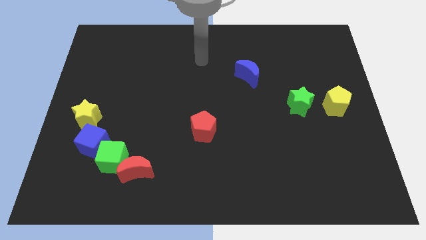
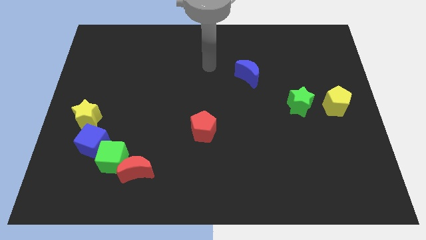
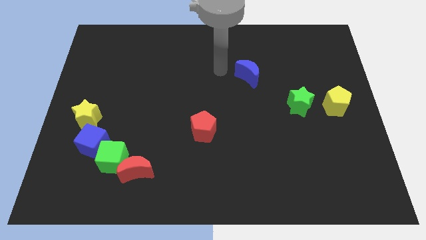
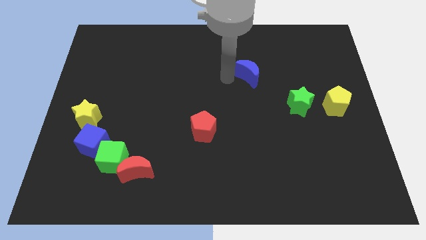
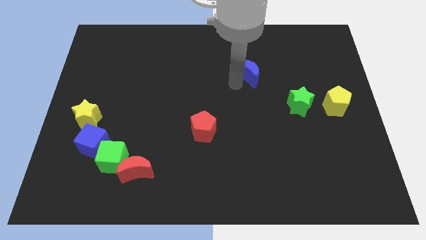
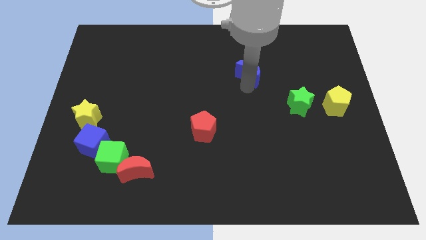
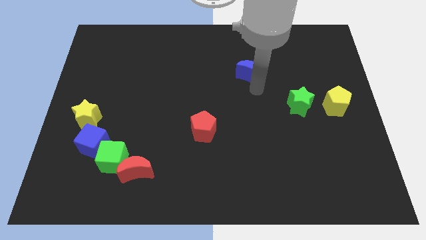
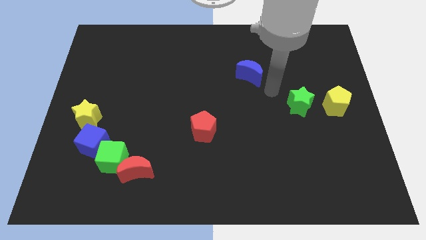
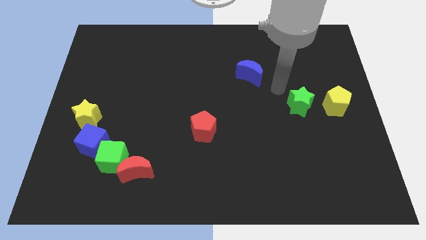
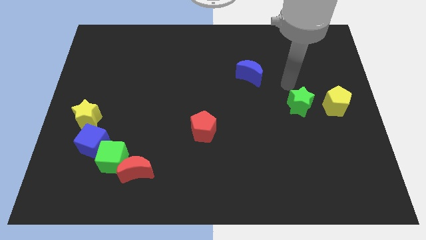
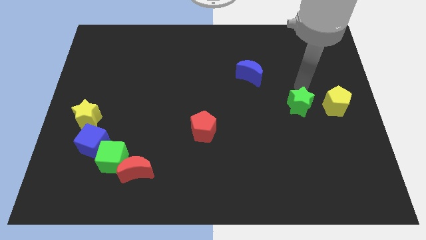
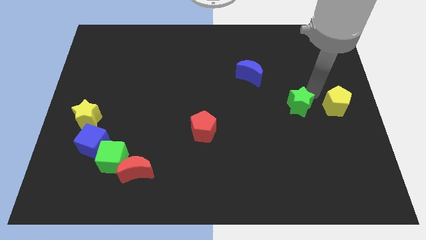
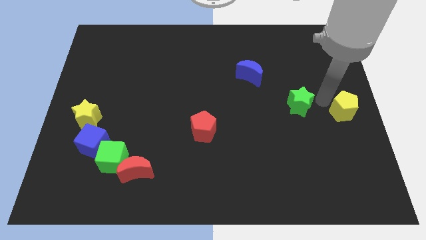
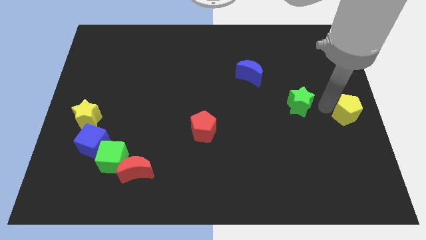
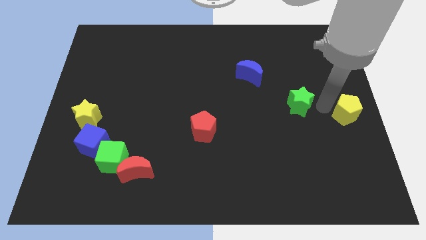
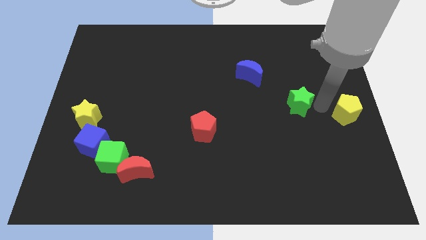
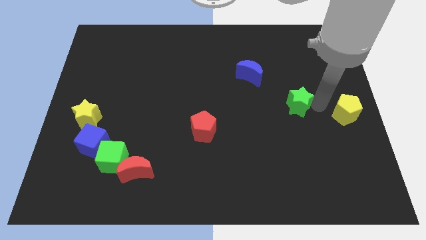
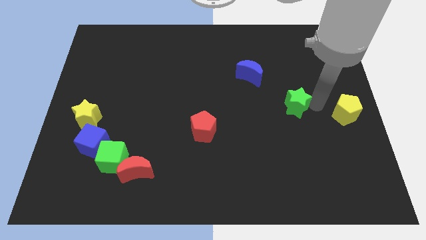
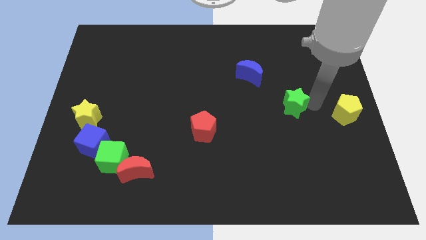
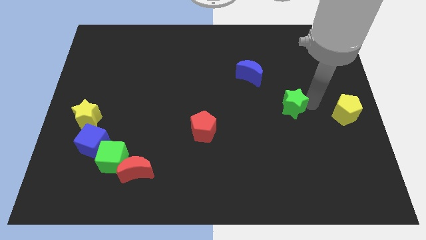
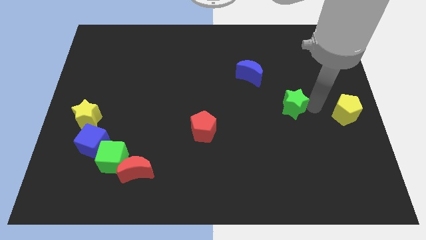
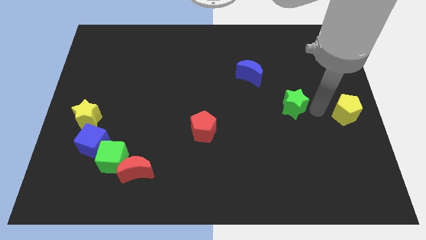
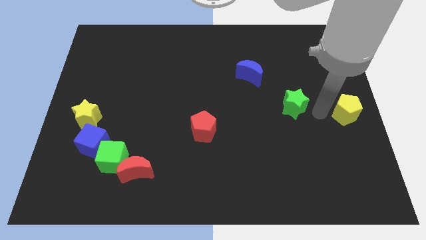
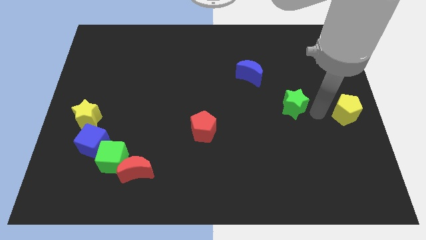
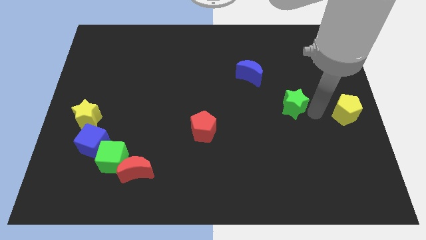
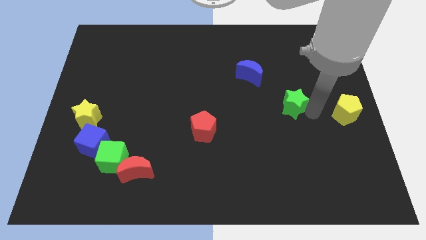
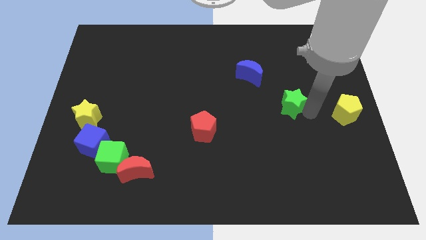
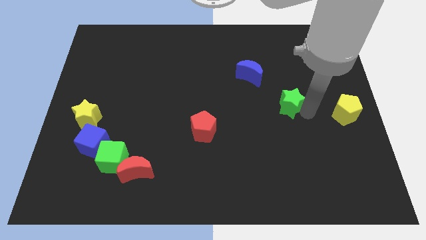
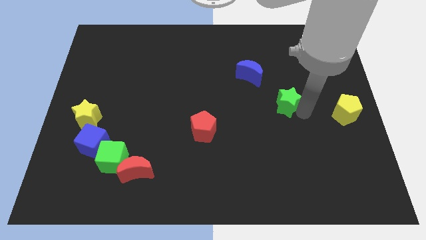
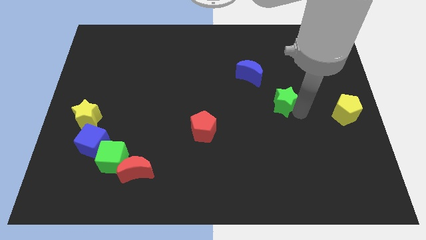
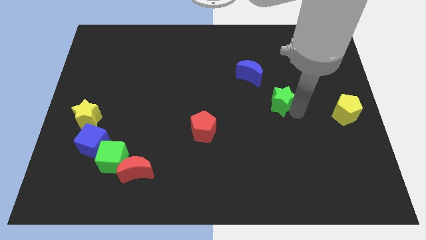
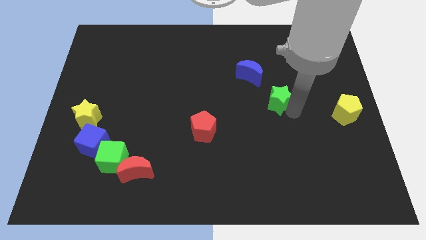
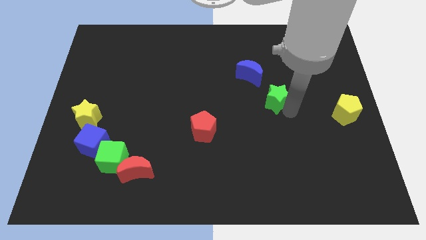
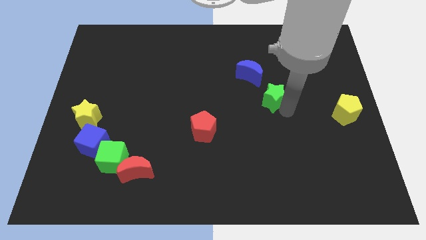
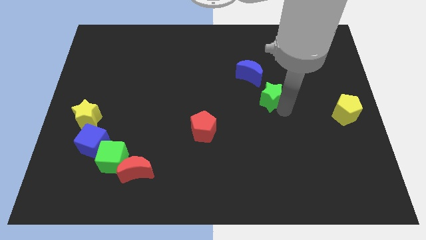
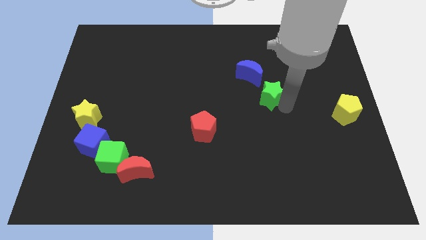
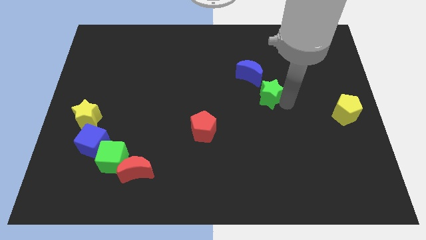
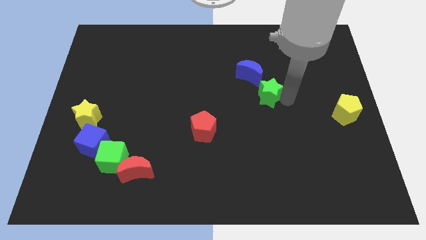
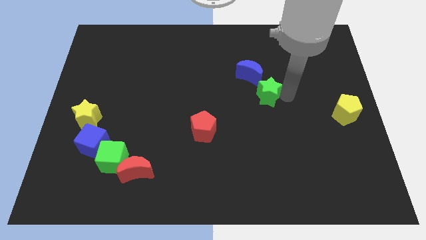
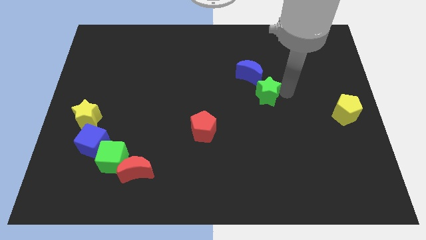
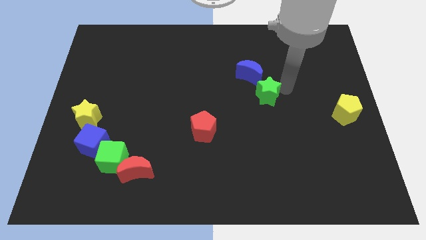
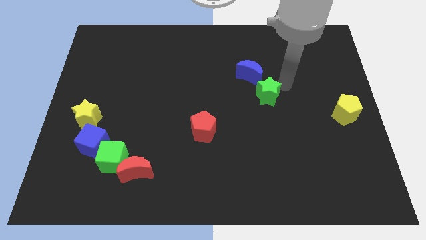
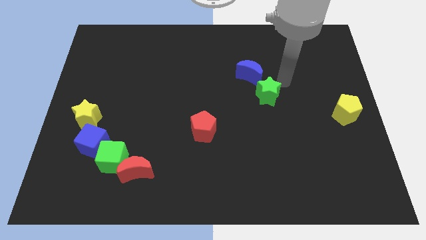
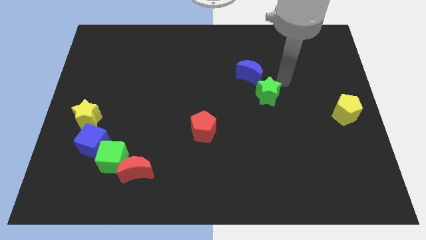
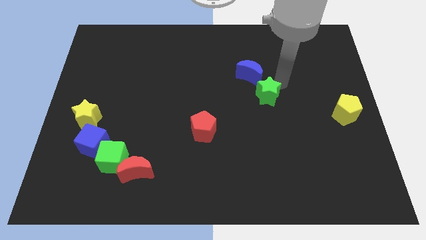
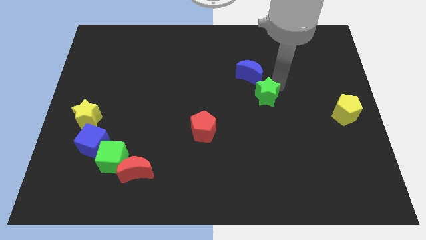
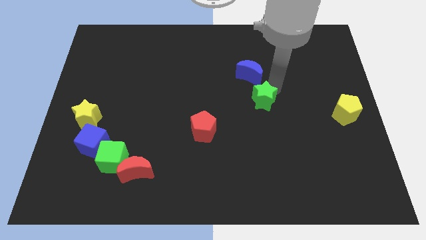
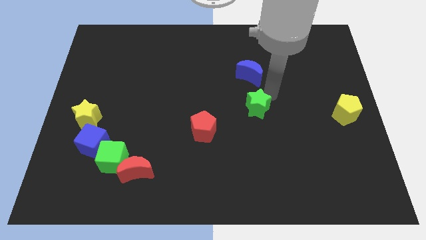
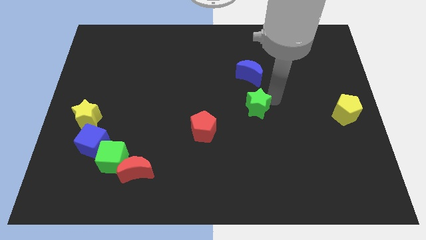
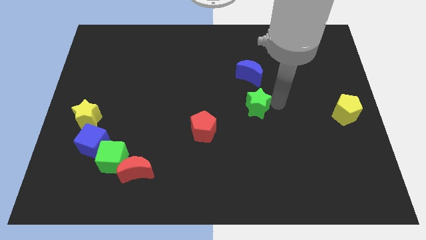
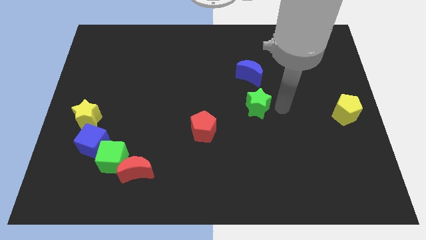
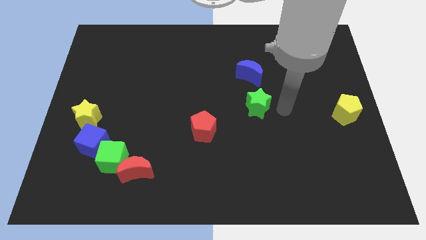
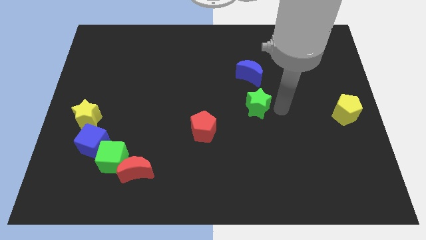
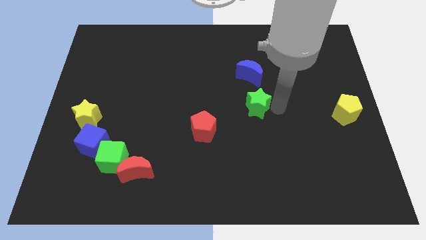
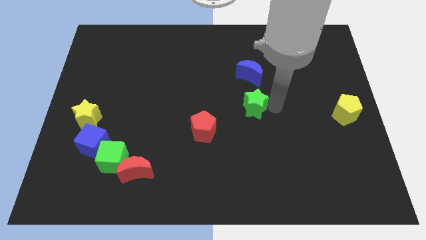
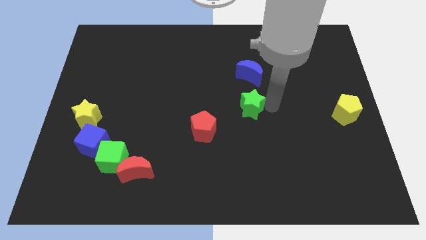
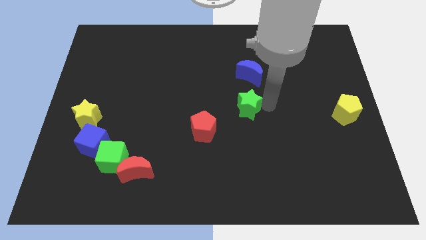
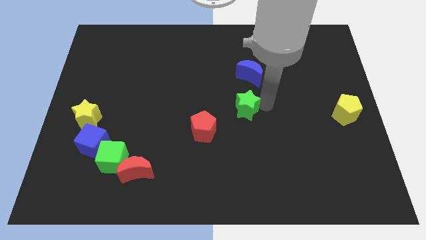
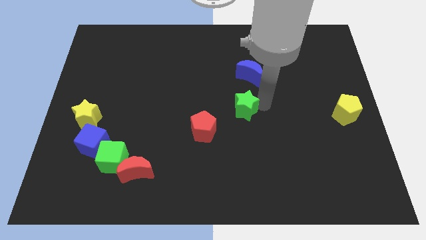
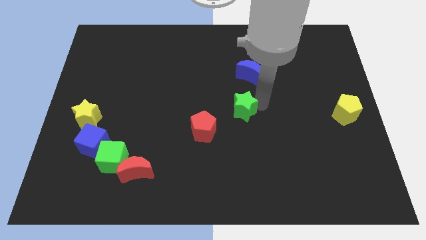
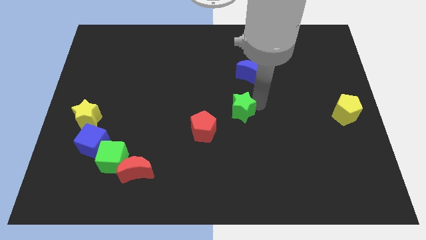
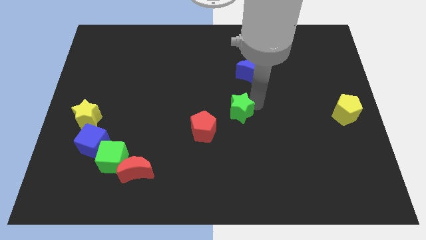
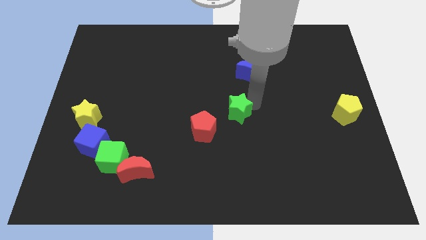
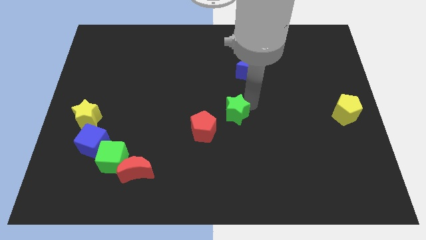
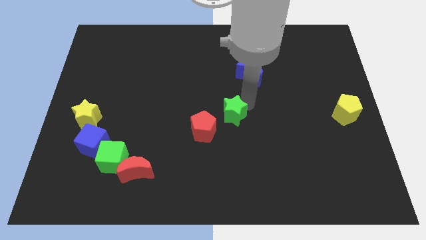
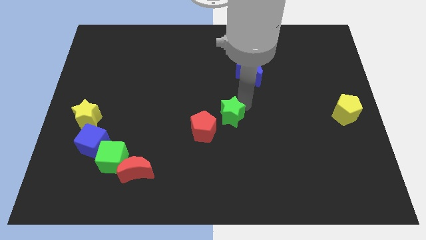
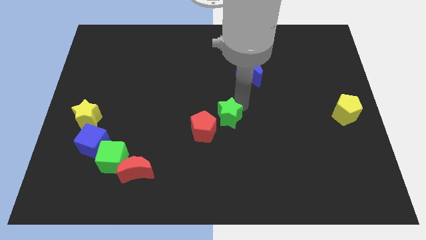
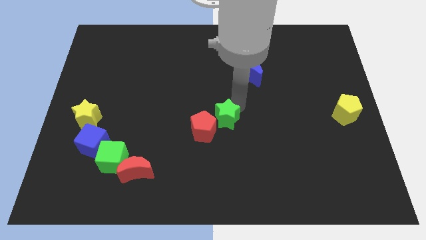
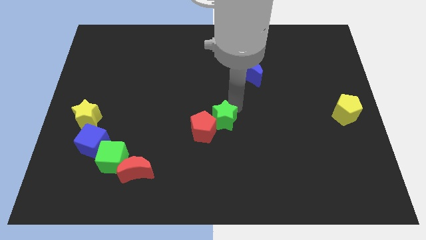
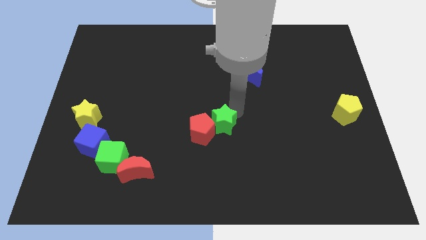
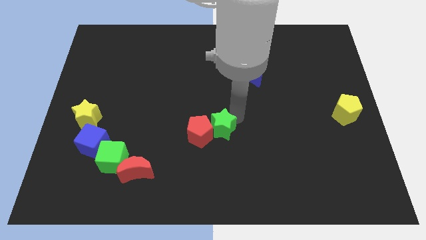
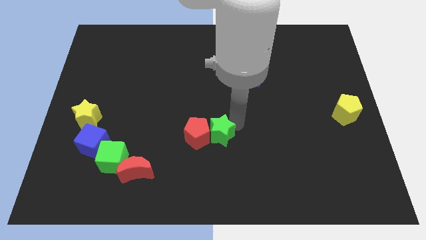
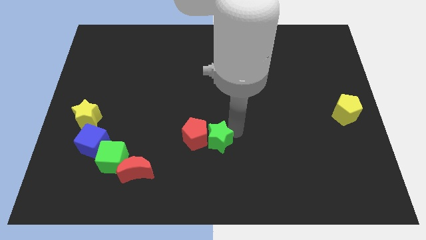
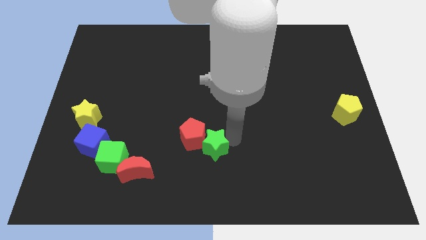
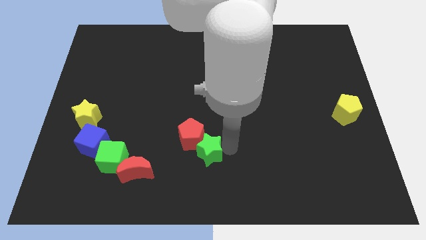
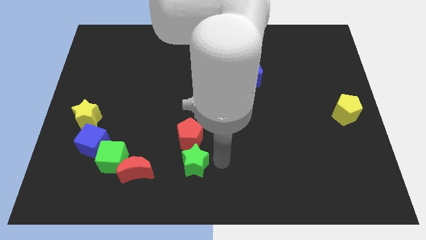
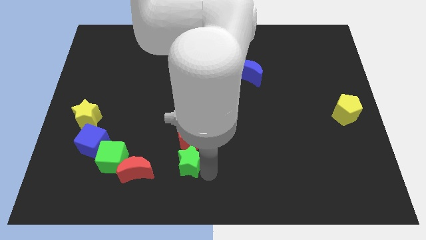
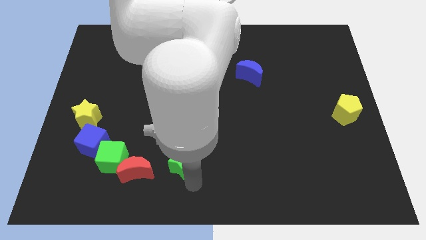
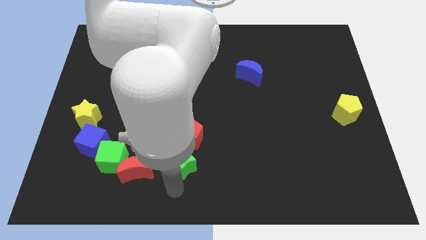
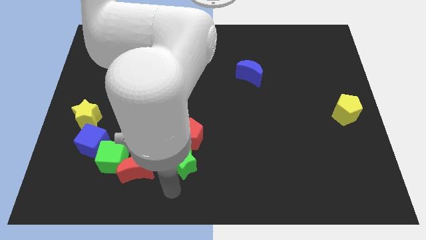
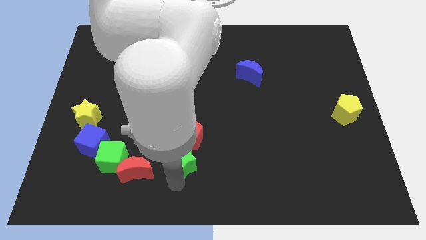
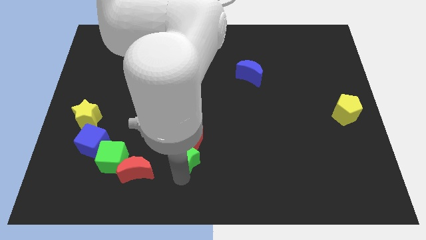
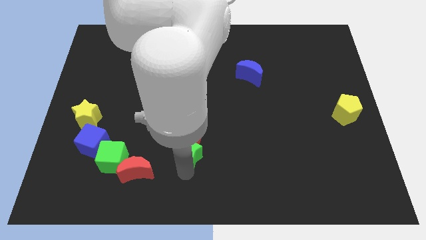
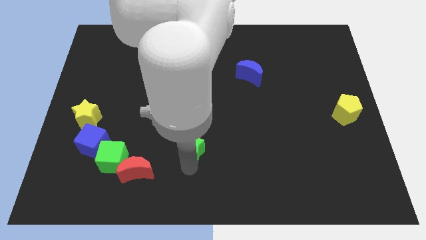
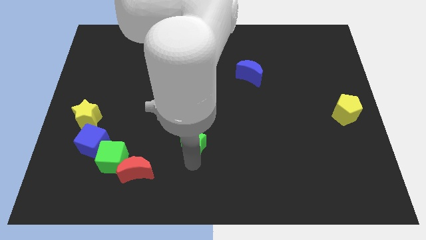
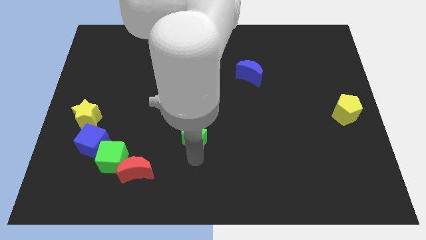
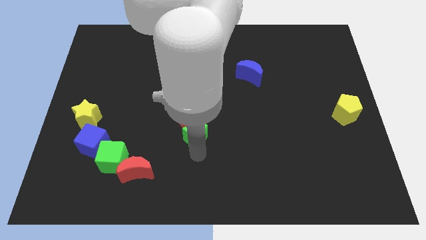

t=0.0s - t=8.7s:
move the green star to the left
